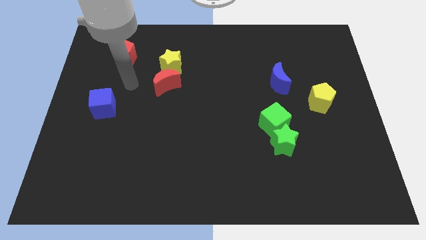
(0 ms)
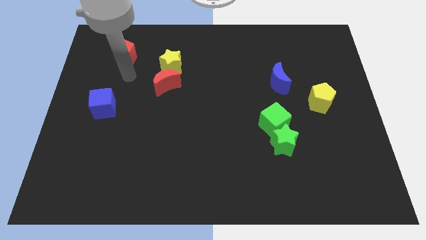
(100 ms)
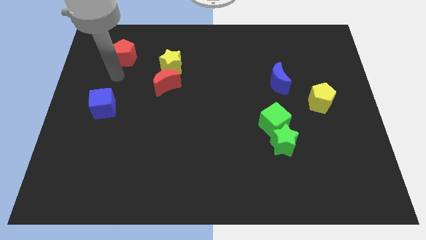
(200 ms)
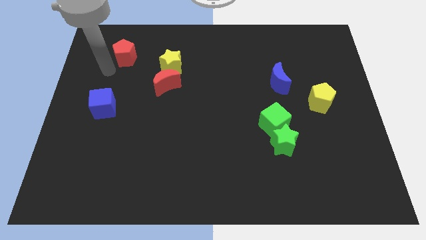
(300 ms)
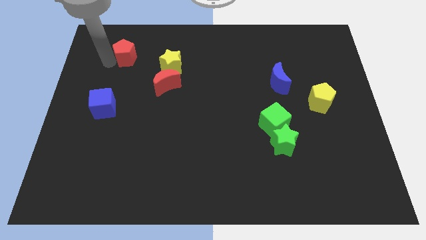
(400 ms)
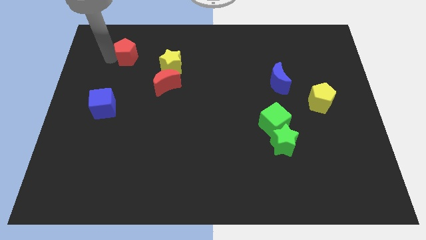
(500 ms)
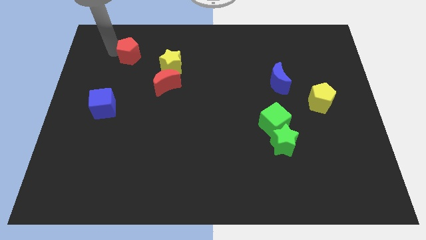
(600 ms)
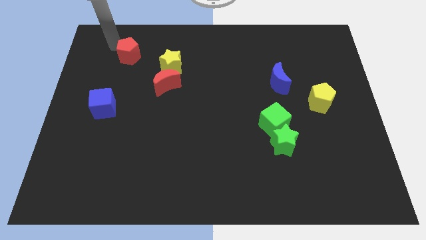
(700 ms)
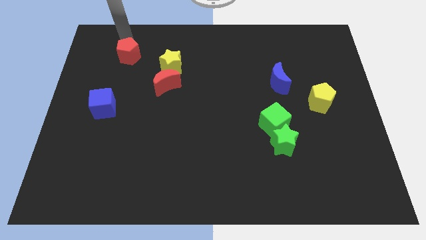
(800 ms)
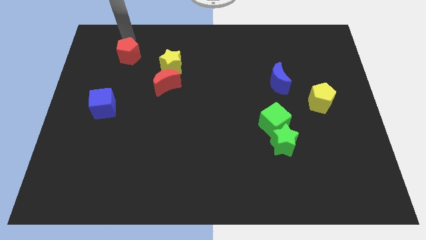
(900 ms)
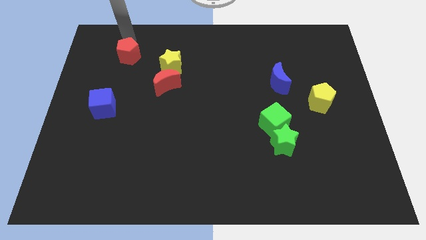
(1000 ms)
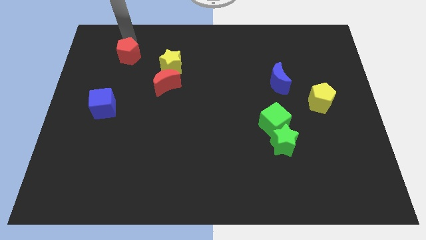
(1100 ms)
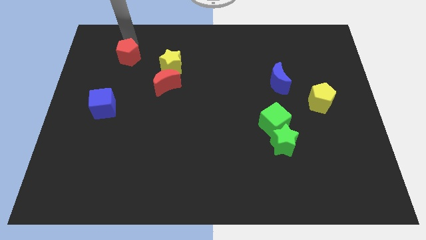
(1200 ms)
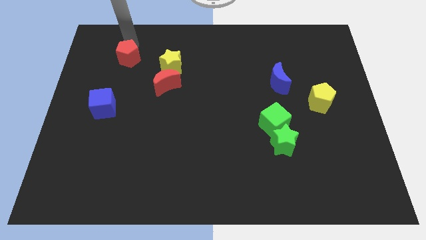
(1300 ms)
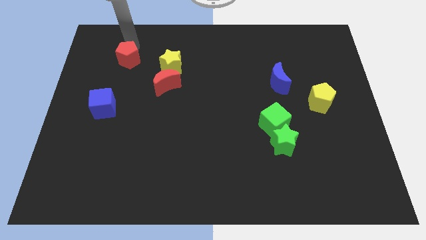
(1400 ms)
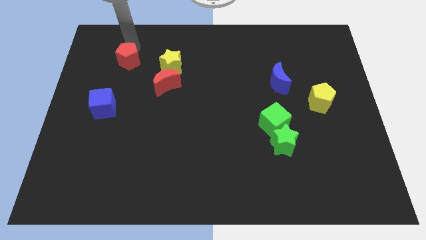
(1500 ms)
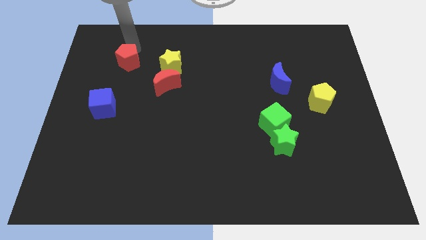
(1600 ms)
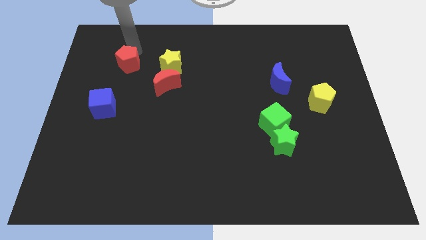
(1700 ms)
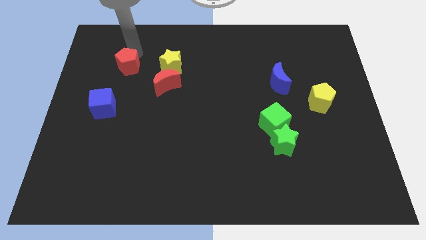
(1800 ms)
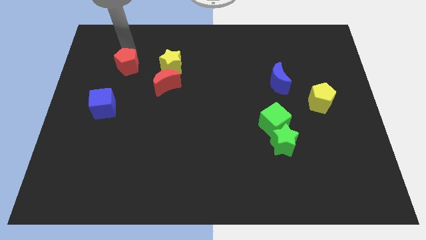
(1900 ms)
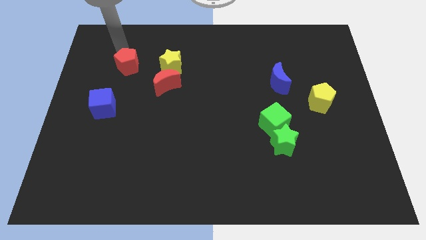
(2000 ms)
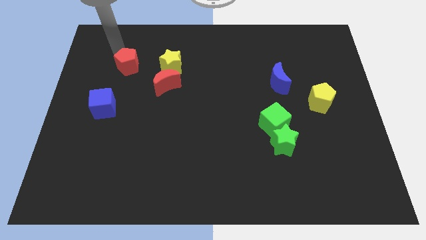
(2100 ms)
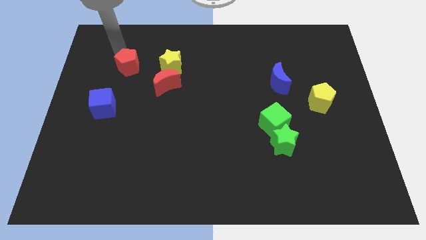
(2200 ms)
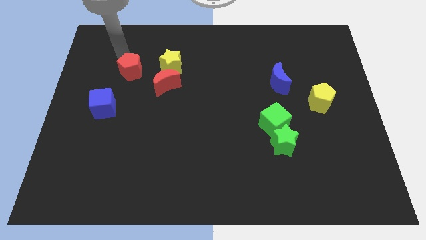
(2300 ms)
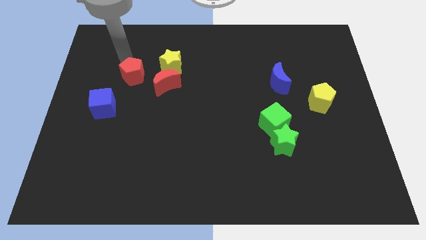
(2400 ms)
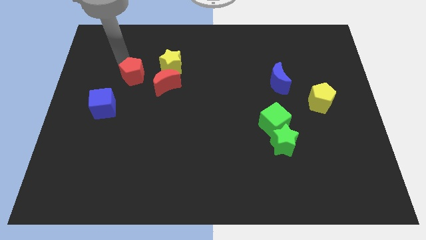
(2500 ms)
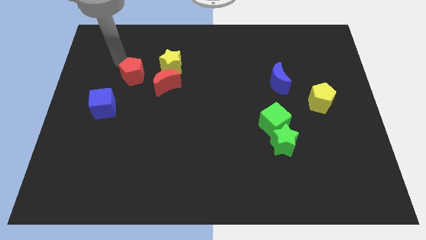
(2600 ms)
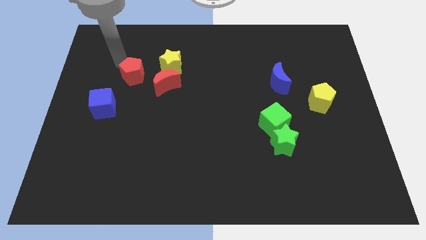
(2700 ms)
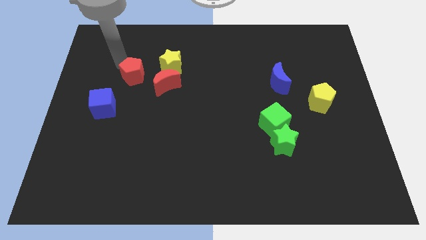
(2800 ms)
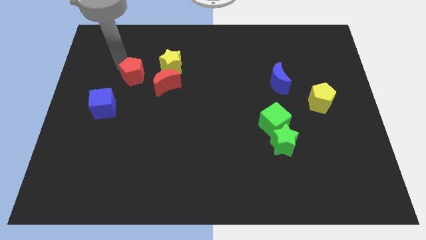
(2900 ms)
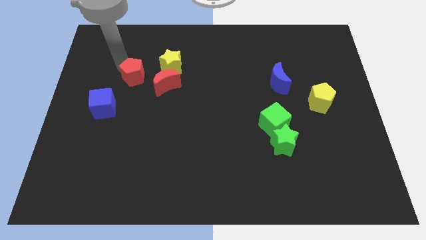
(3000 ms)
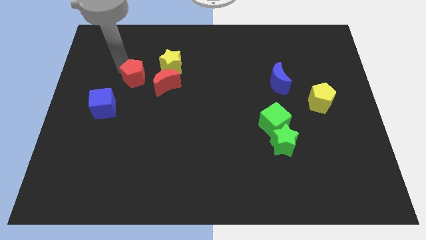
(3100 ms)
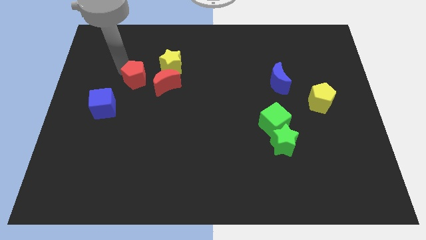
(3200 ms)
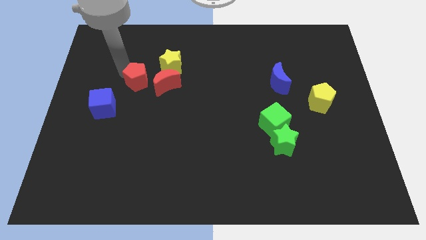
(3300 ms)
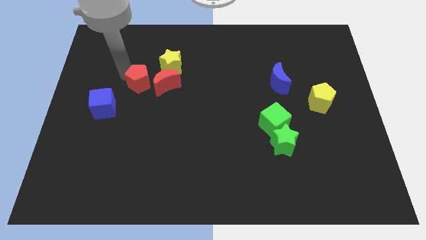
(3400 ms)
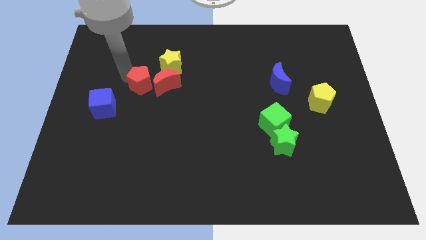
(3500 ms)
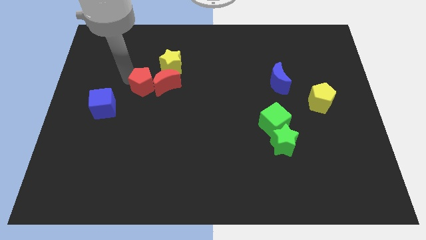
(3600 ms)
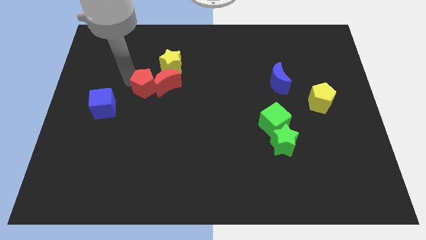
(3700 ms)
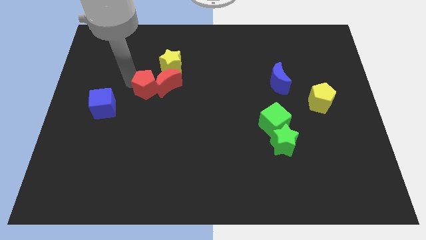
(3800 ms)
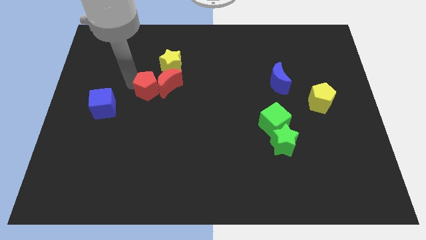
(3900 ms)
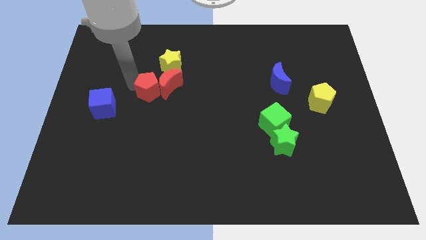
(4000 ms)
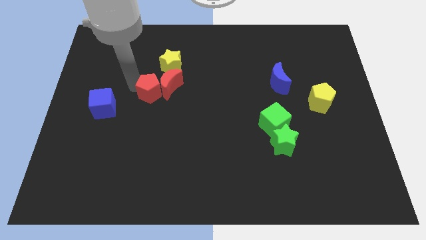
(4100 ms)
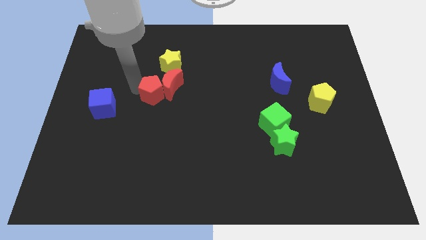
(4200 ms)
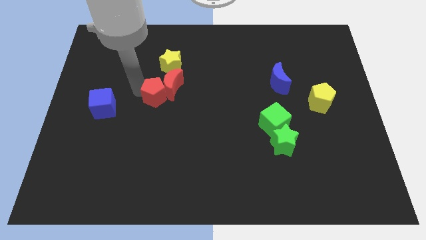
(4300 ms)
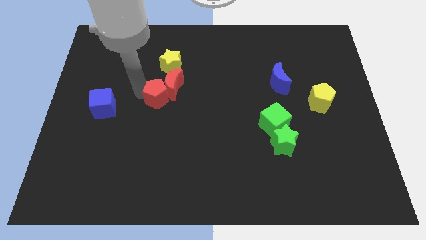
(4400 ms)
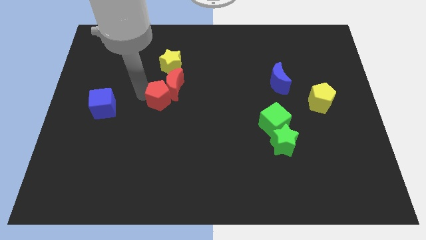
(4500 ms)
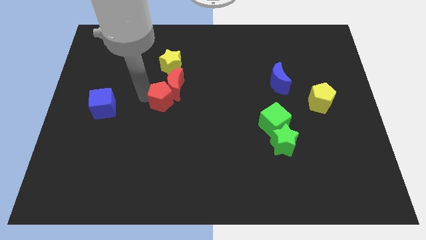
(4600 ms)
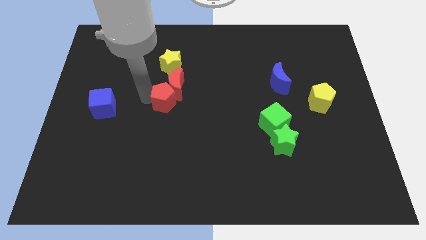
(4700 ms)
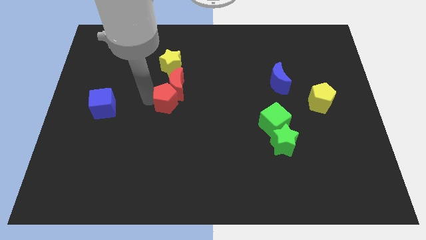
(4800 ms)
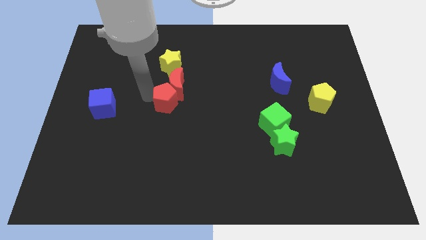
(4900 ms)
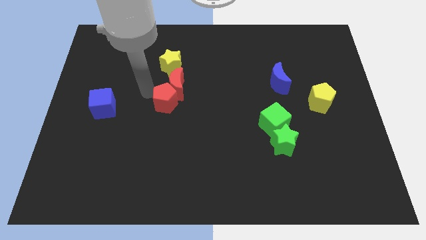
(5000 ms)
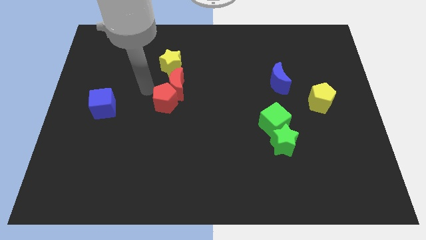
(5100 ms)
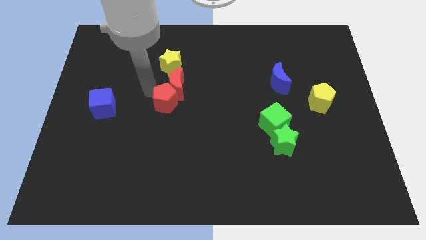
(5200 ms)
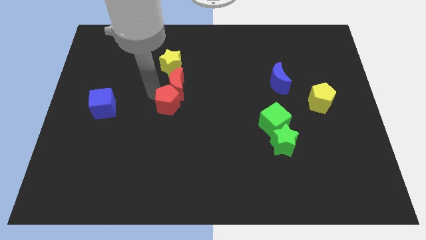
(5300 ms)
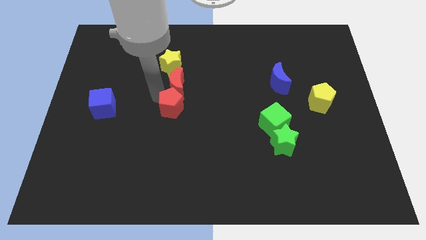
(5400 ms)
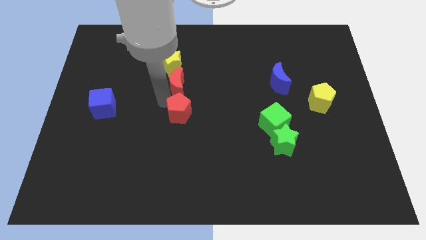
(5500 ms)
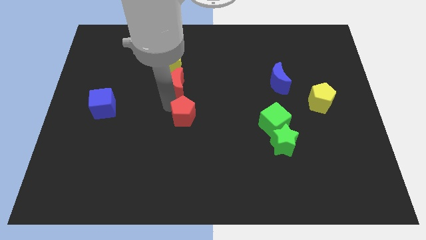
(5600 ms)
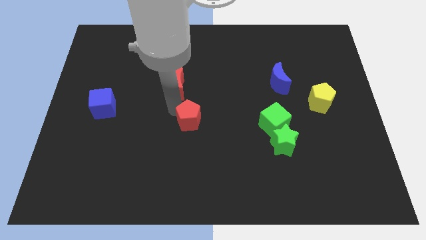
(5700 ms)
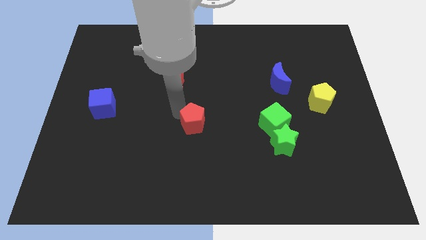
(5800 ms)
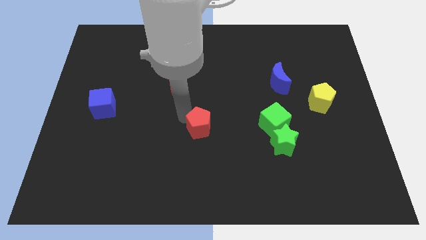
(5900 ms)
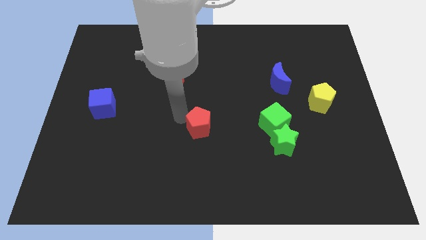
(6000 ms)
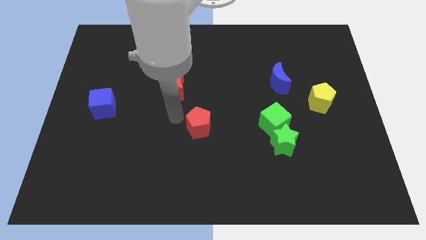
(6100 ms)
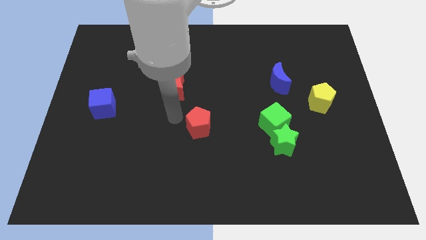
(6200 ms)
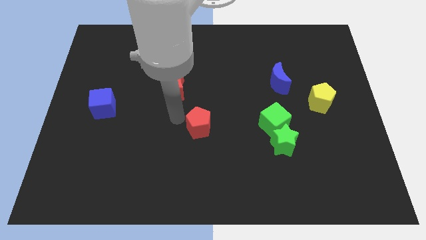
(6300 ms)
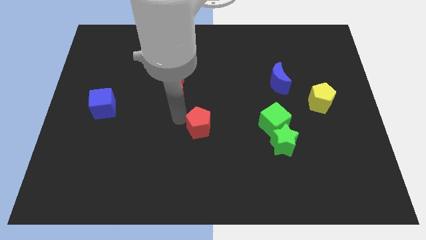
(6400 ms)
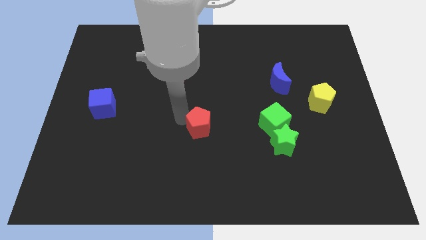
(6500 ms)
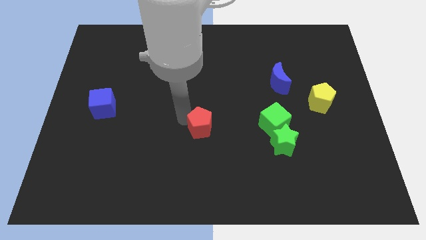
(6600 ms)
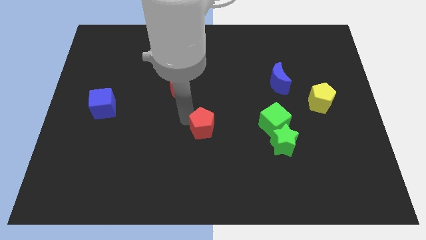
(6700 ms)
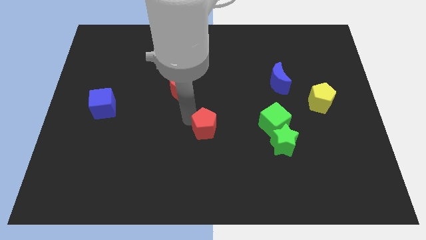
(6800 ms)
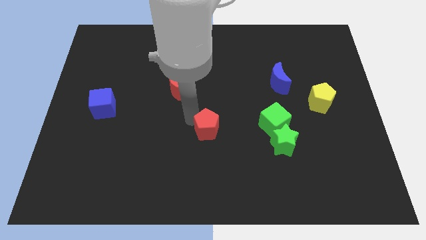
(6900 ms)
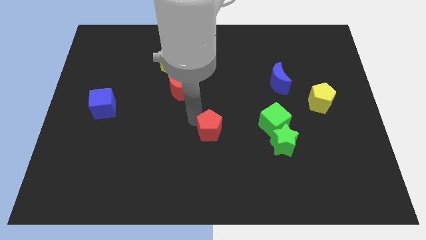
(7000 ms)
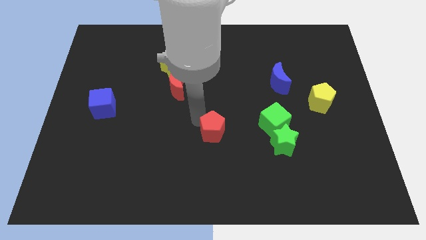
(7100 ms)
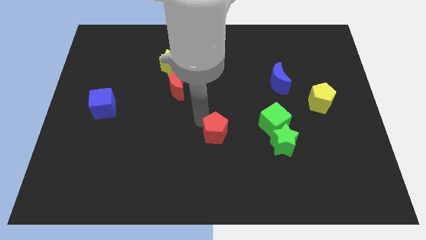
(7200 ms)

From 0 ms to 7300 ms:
slide the red pentagon left of the green star
